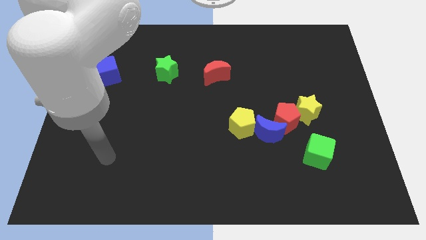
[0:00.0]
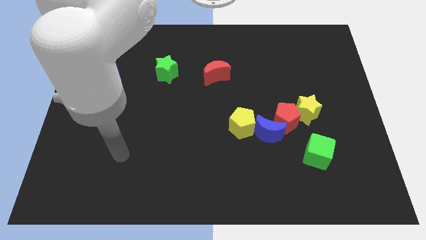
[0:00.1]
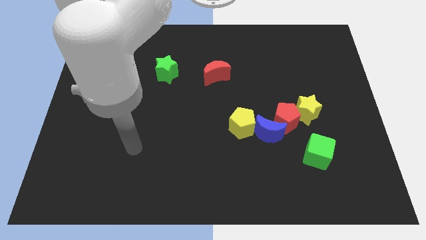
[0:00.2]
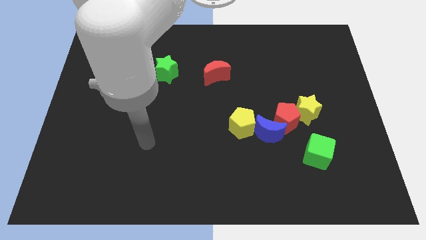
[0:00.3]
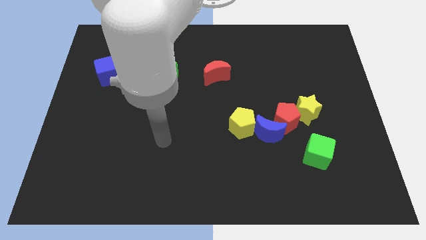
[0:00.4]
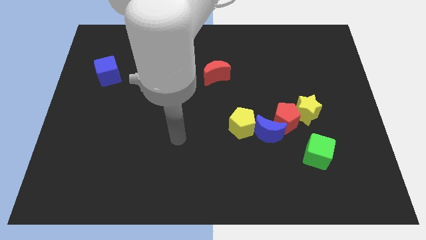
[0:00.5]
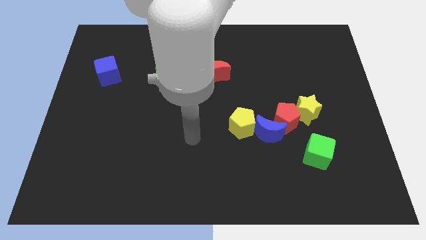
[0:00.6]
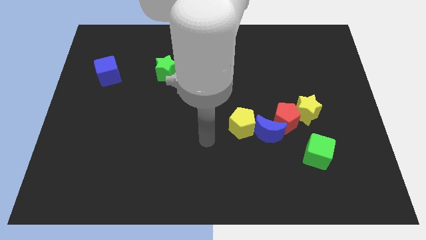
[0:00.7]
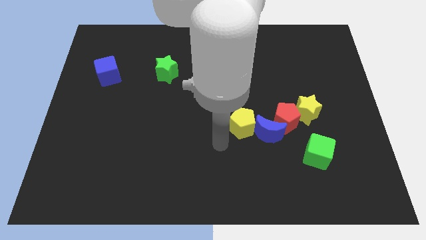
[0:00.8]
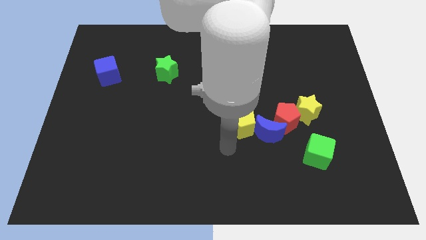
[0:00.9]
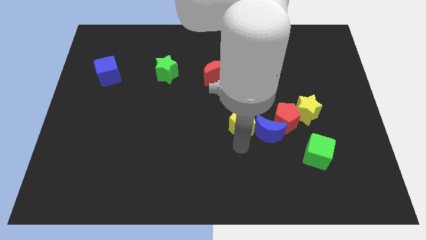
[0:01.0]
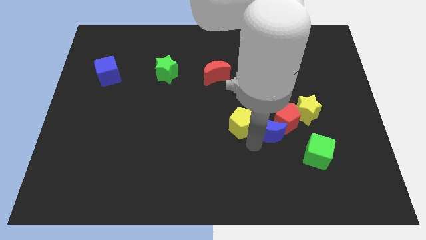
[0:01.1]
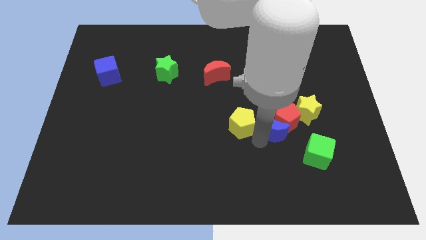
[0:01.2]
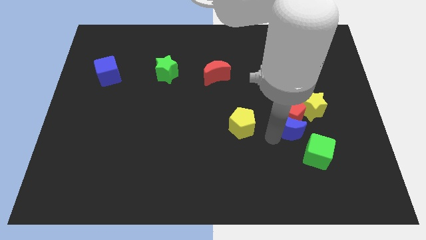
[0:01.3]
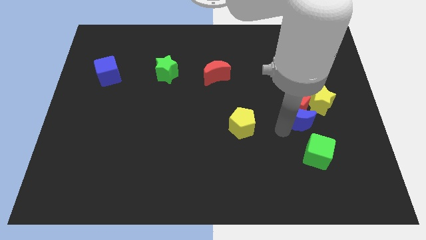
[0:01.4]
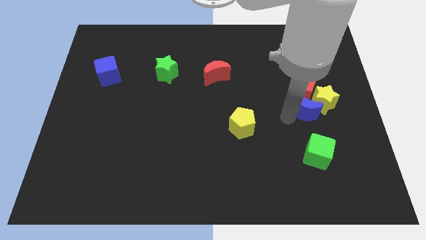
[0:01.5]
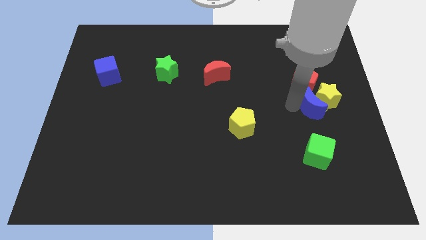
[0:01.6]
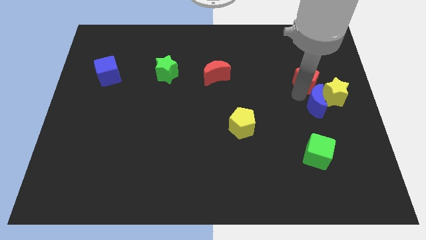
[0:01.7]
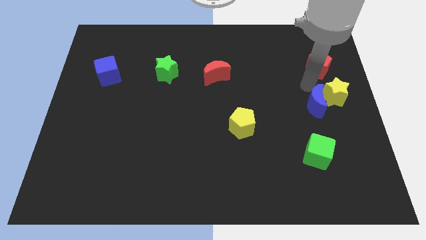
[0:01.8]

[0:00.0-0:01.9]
separate the yellow star from the red pentagon

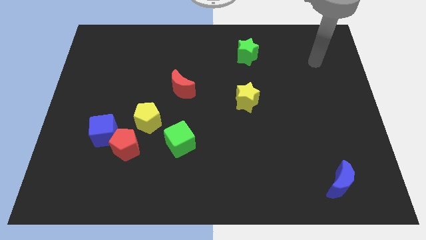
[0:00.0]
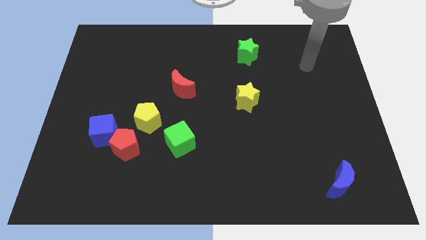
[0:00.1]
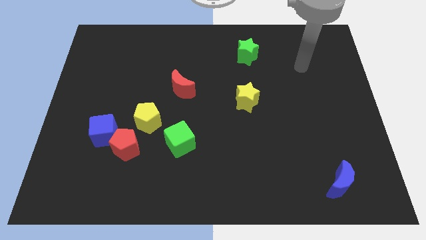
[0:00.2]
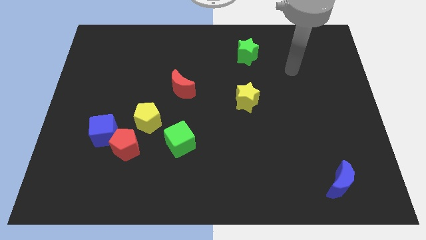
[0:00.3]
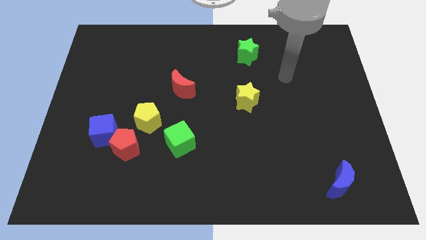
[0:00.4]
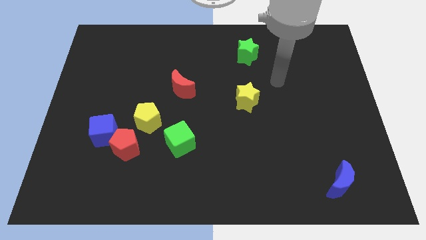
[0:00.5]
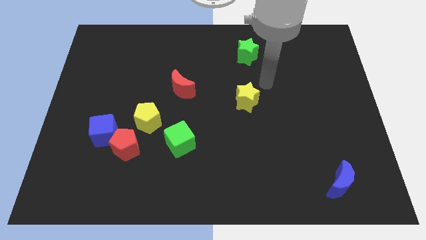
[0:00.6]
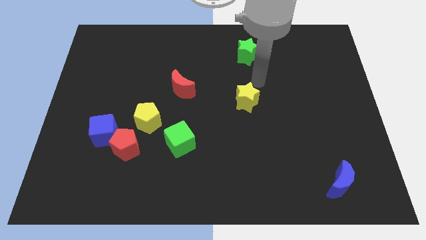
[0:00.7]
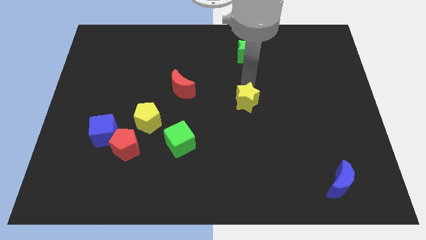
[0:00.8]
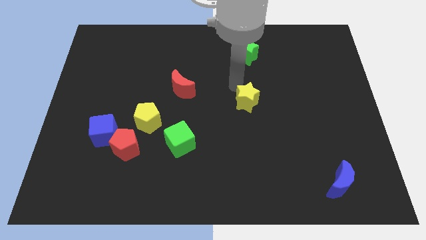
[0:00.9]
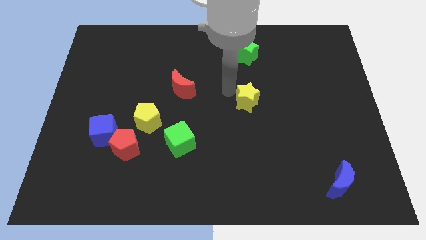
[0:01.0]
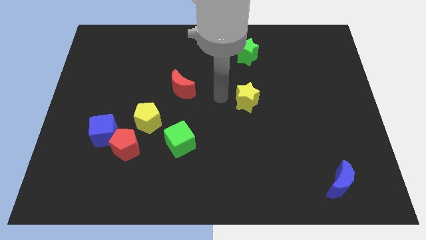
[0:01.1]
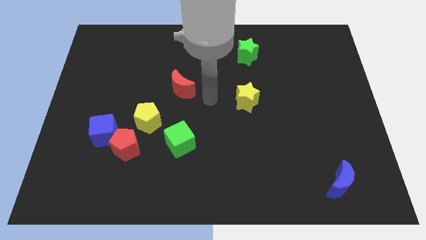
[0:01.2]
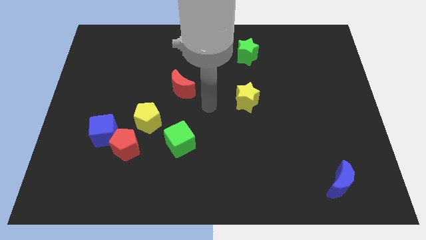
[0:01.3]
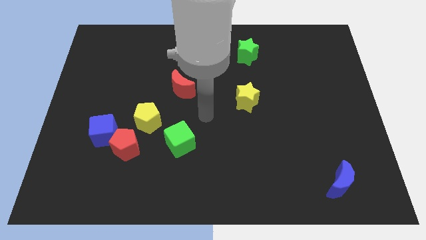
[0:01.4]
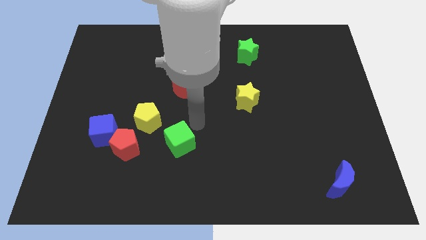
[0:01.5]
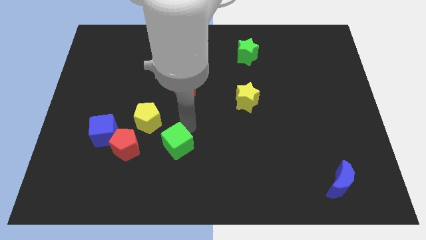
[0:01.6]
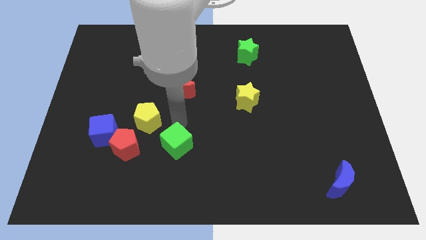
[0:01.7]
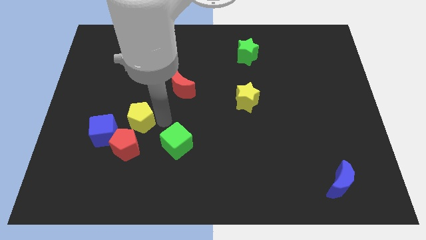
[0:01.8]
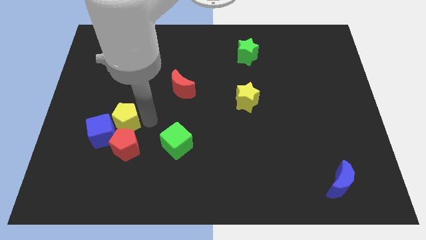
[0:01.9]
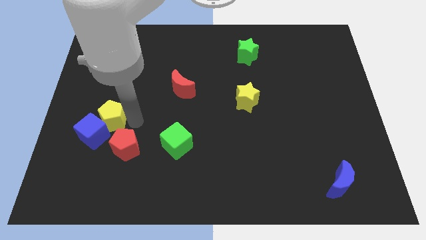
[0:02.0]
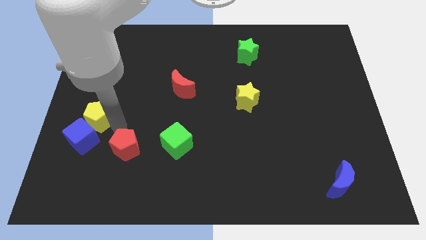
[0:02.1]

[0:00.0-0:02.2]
move the red pentagon away from the blue cube and yellow pentagon

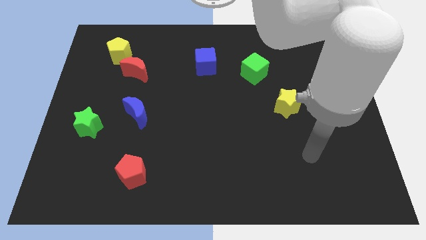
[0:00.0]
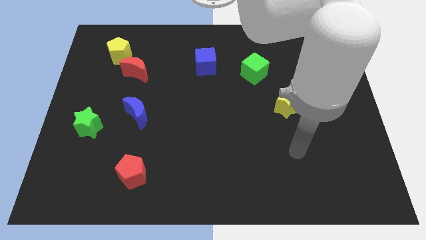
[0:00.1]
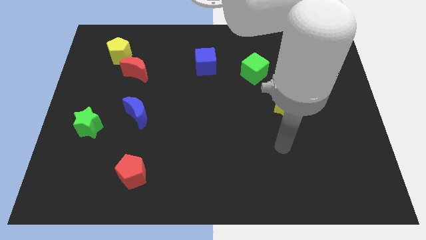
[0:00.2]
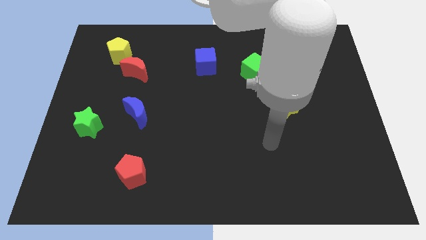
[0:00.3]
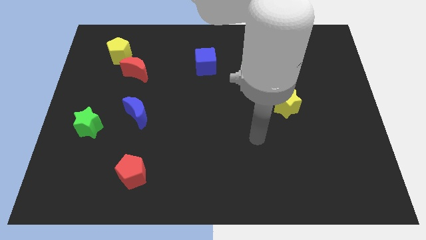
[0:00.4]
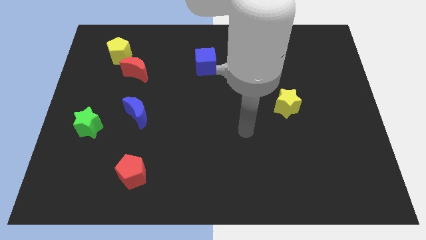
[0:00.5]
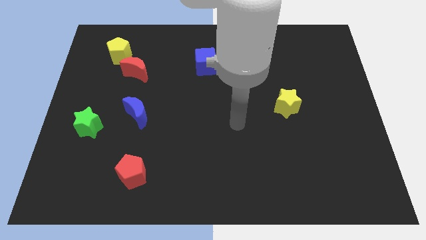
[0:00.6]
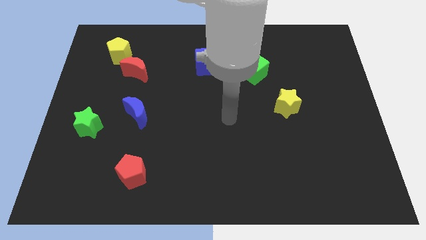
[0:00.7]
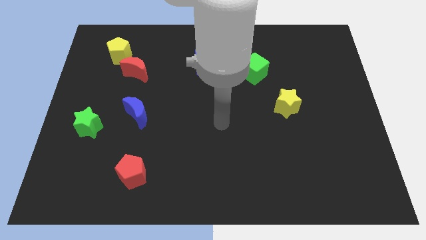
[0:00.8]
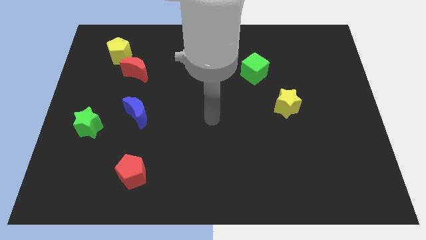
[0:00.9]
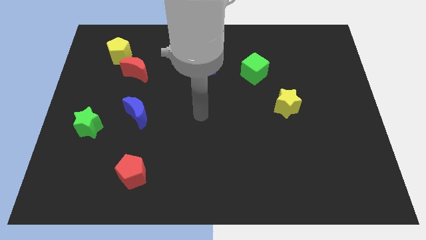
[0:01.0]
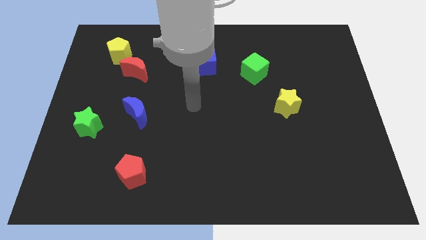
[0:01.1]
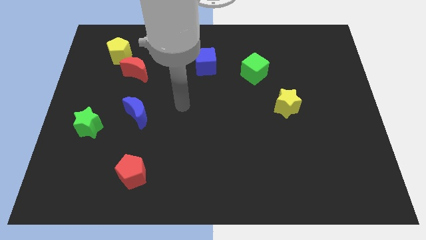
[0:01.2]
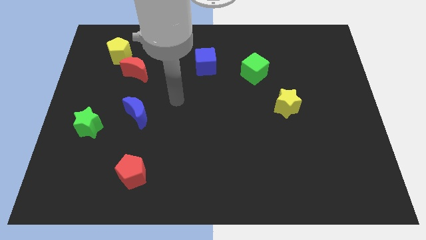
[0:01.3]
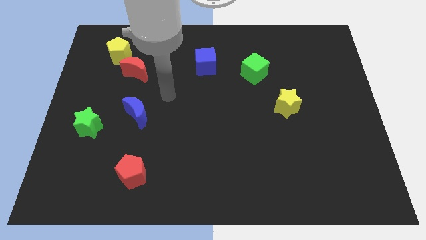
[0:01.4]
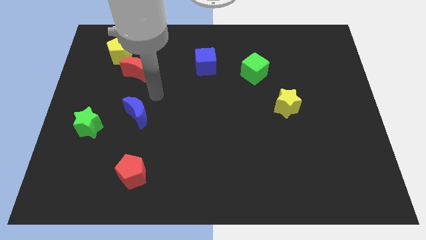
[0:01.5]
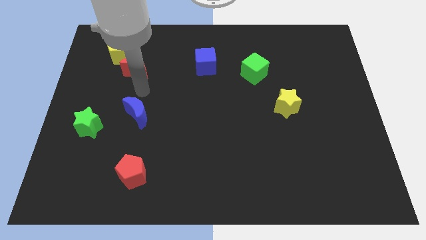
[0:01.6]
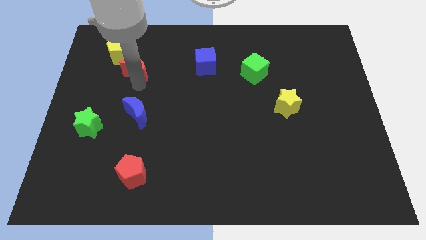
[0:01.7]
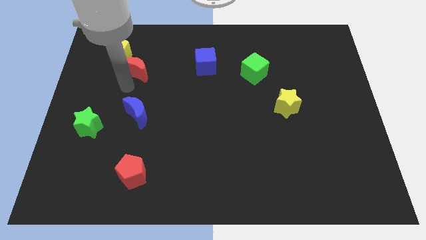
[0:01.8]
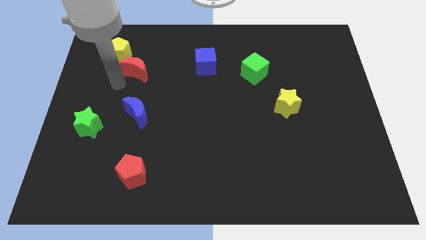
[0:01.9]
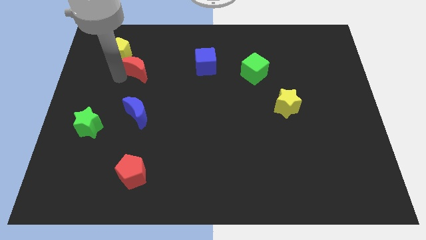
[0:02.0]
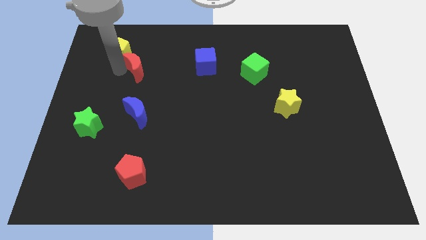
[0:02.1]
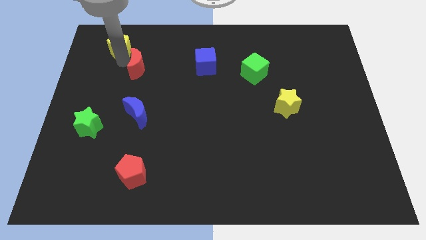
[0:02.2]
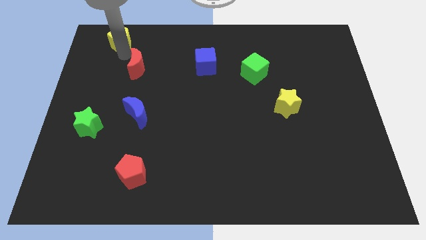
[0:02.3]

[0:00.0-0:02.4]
pull the red moon apart from the yellow pentagon

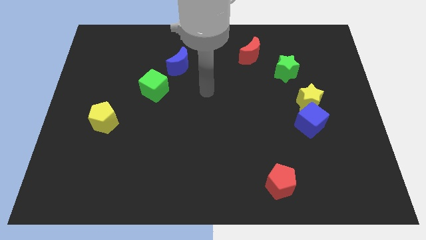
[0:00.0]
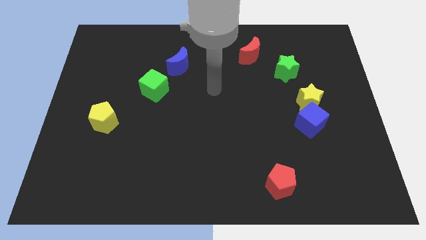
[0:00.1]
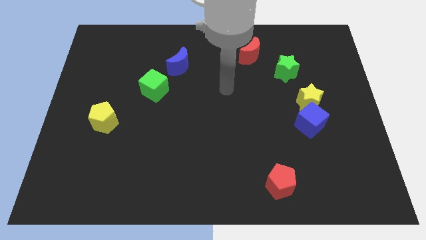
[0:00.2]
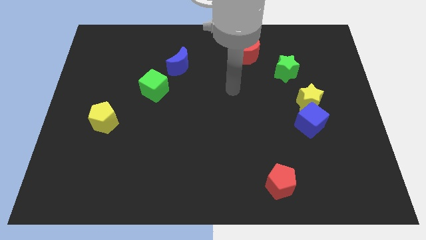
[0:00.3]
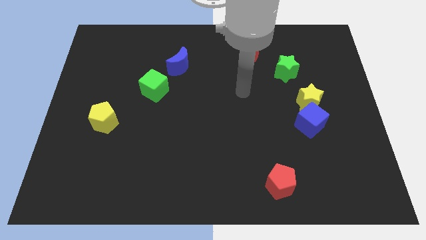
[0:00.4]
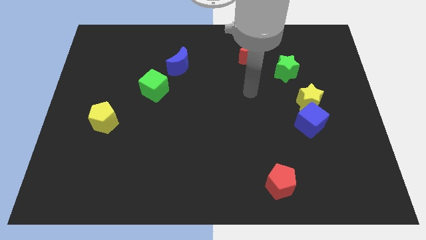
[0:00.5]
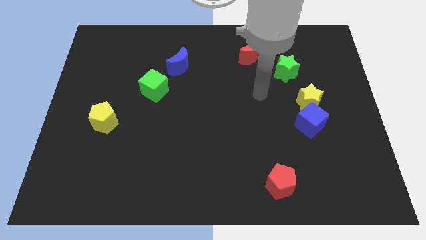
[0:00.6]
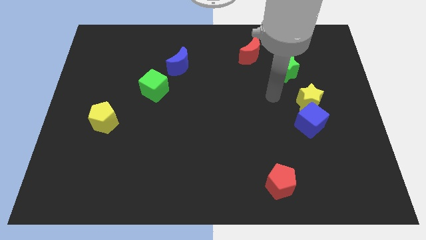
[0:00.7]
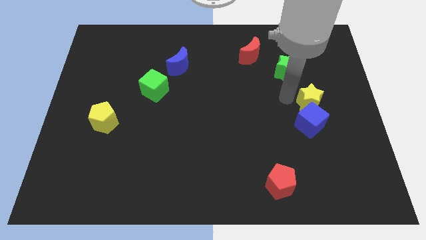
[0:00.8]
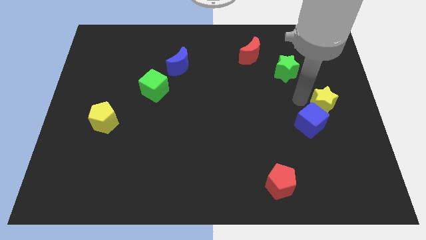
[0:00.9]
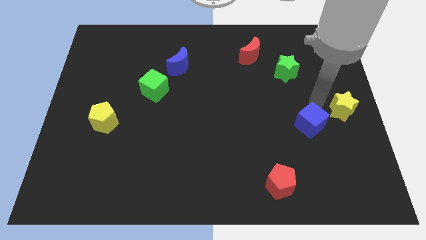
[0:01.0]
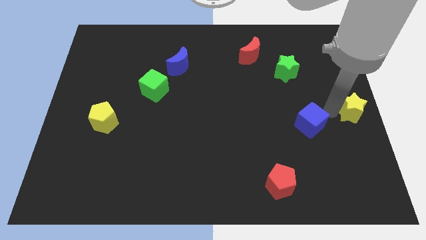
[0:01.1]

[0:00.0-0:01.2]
pull the blue cube apart from the yellow star

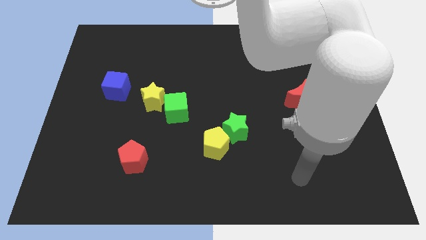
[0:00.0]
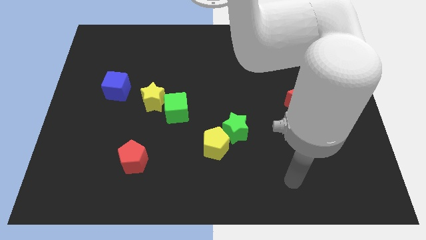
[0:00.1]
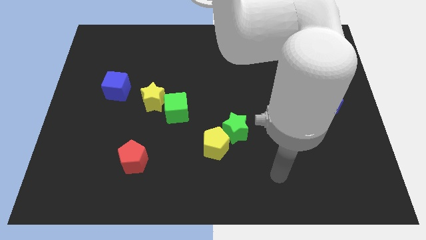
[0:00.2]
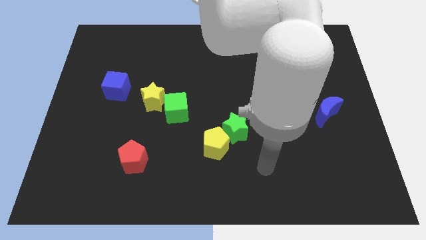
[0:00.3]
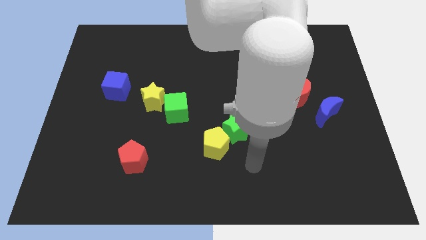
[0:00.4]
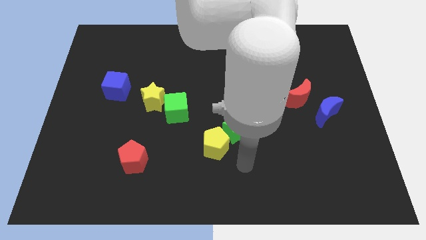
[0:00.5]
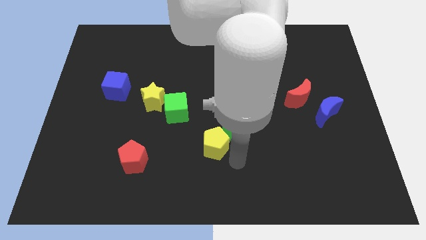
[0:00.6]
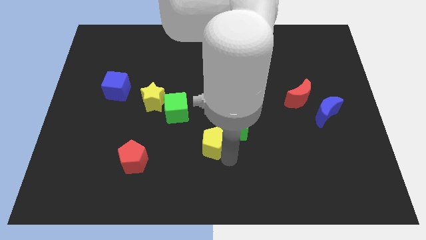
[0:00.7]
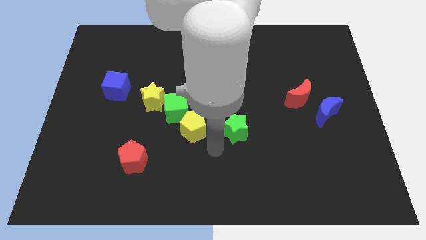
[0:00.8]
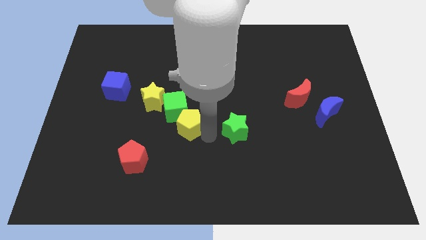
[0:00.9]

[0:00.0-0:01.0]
separate the green star from the yellow pentagon

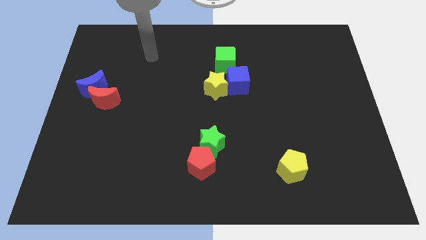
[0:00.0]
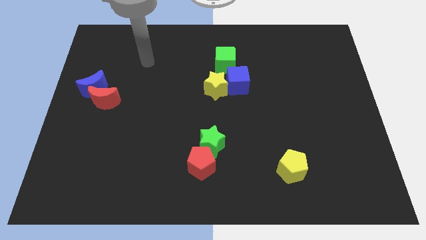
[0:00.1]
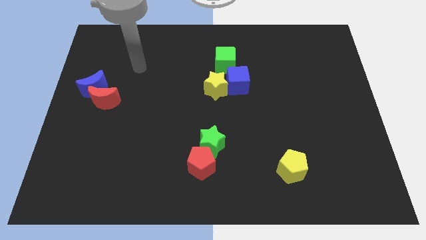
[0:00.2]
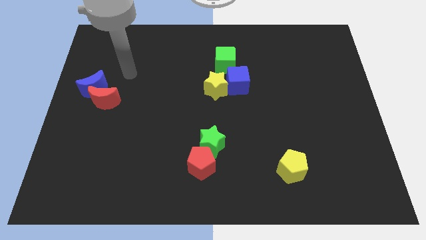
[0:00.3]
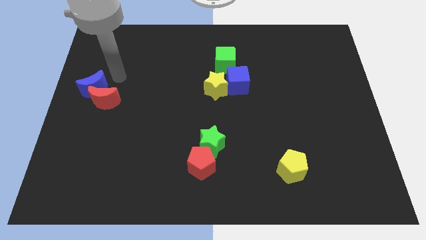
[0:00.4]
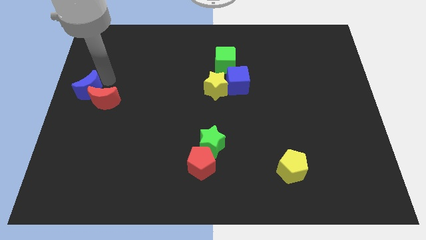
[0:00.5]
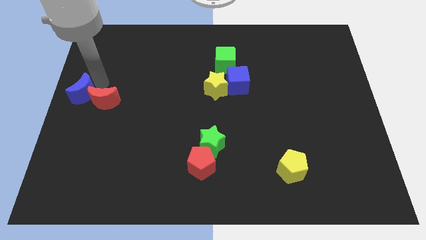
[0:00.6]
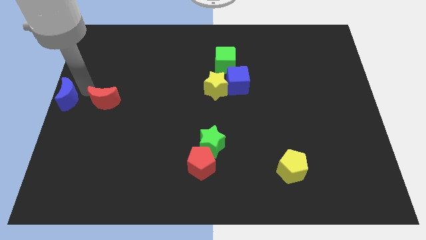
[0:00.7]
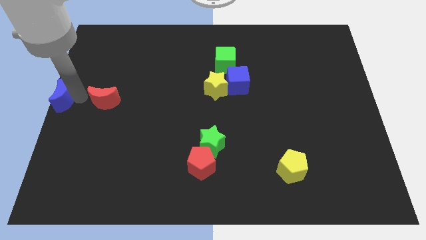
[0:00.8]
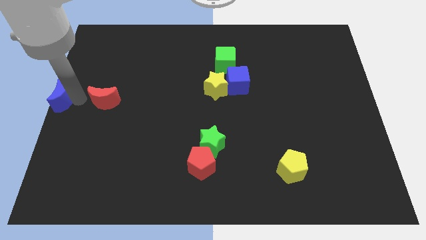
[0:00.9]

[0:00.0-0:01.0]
separate the red moon from the blue moon
